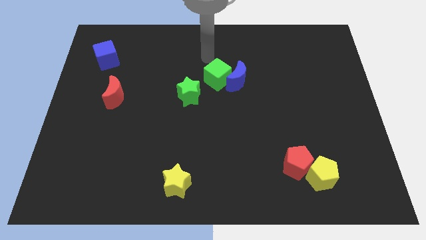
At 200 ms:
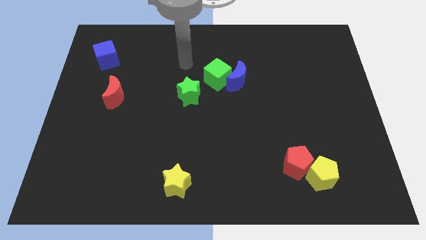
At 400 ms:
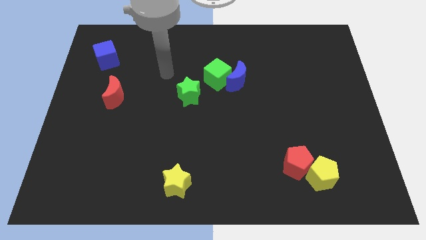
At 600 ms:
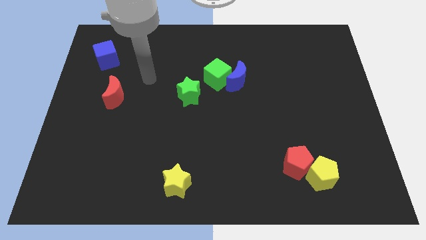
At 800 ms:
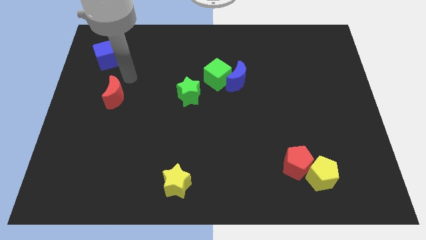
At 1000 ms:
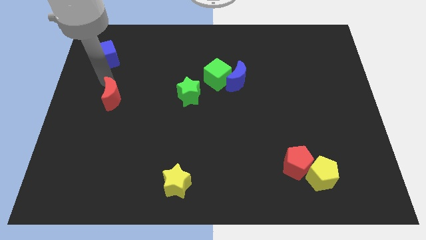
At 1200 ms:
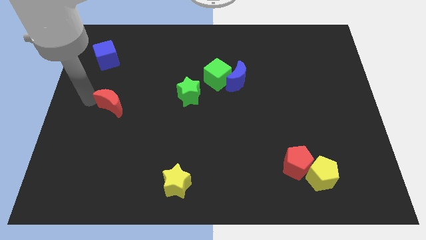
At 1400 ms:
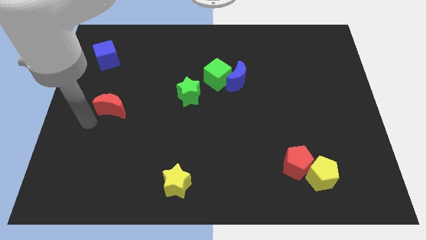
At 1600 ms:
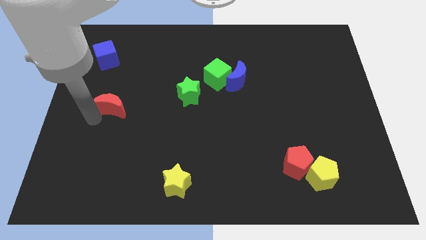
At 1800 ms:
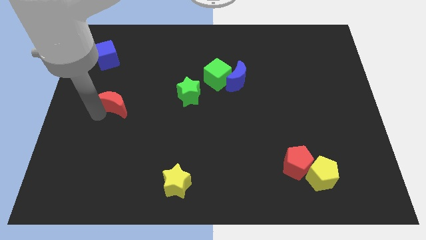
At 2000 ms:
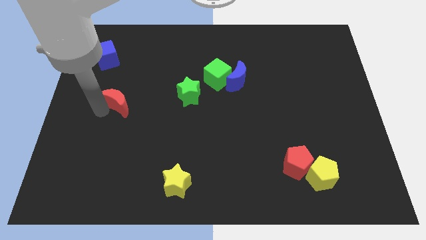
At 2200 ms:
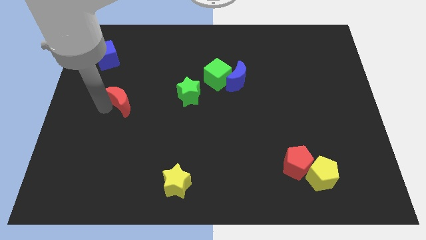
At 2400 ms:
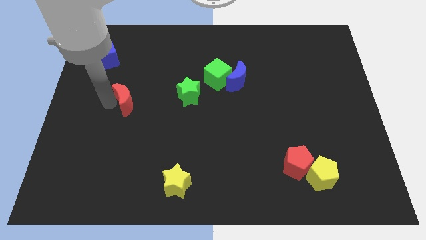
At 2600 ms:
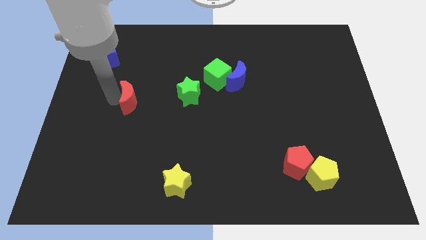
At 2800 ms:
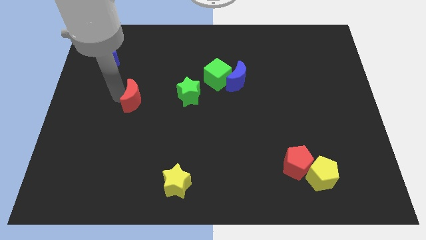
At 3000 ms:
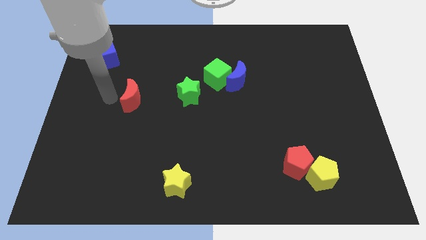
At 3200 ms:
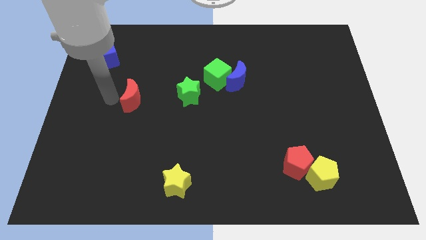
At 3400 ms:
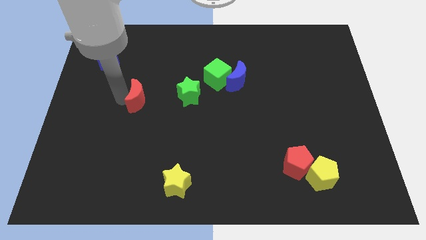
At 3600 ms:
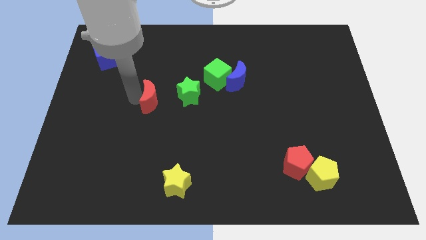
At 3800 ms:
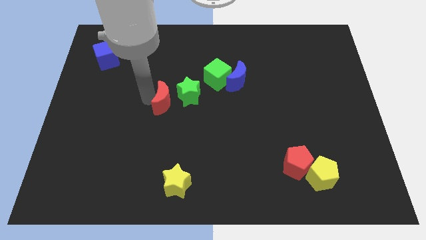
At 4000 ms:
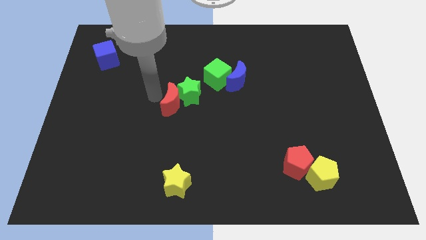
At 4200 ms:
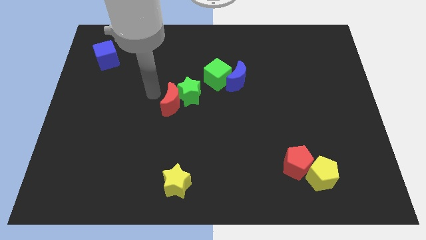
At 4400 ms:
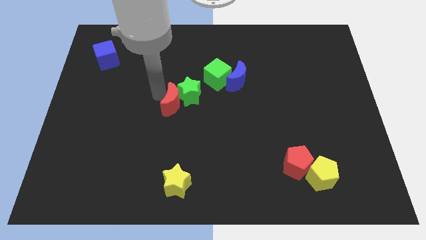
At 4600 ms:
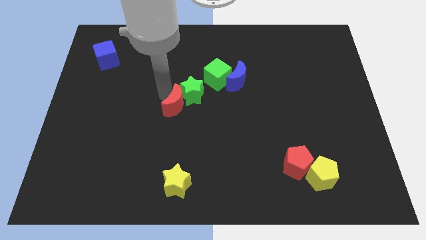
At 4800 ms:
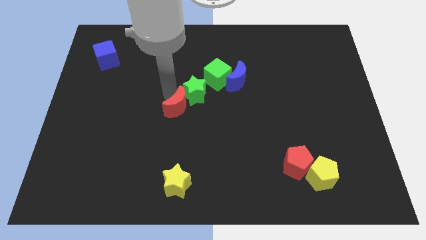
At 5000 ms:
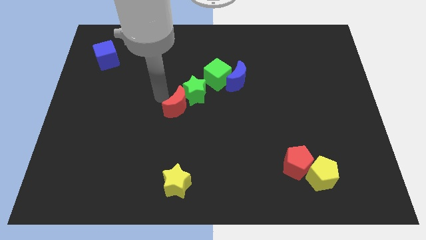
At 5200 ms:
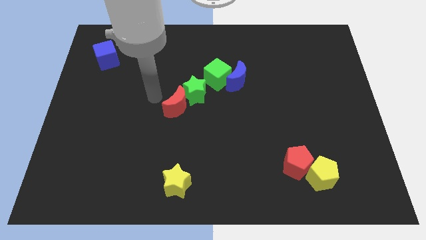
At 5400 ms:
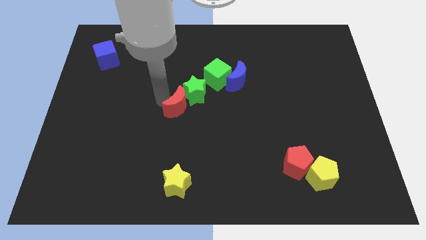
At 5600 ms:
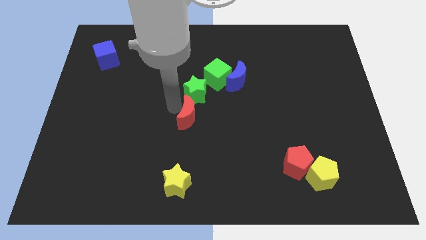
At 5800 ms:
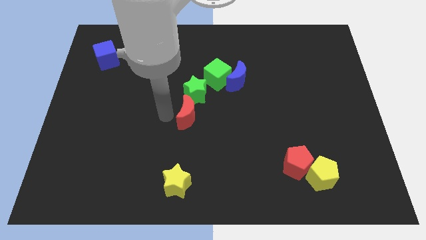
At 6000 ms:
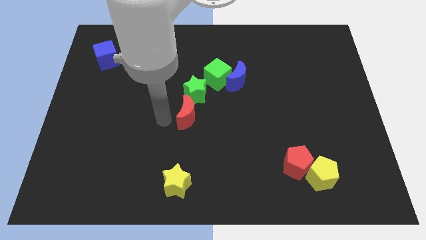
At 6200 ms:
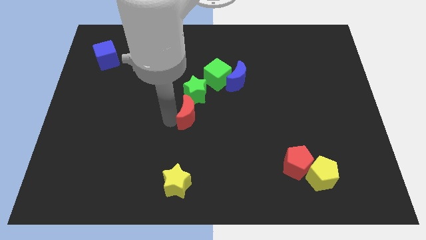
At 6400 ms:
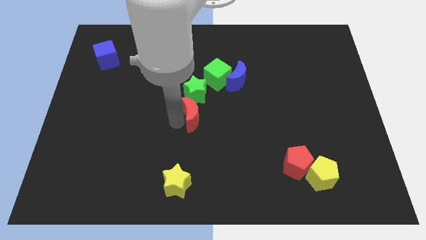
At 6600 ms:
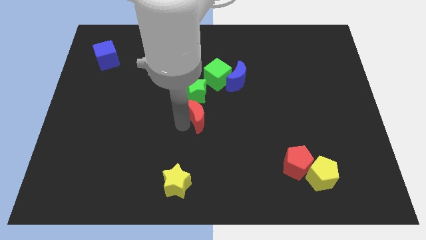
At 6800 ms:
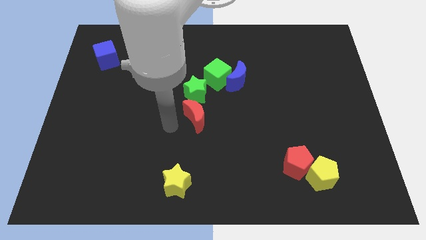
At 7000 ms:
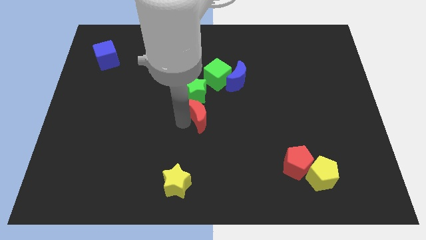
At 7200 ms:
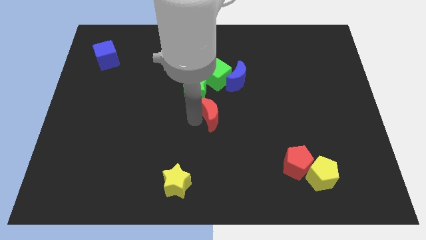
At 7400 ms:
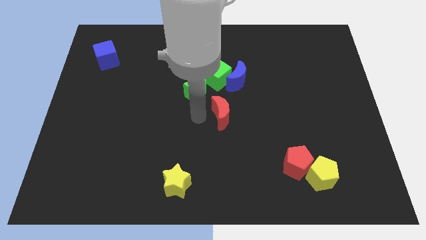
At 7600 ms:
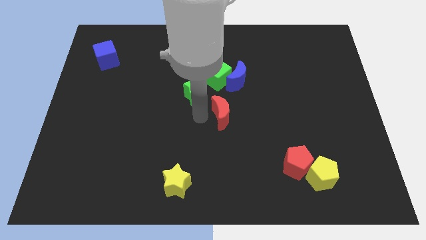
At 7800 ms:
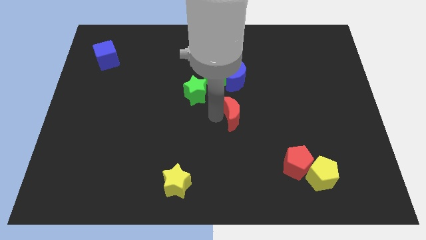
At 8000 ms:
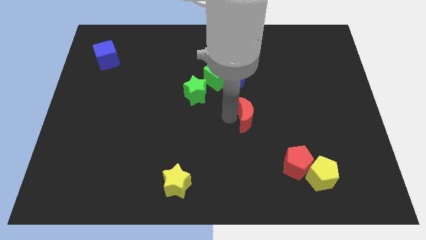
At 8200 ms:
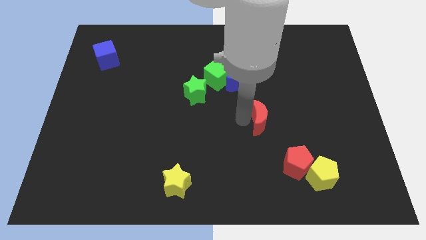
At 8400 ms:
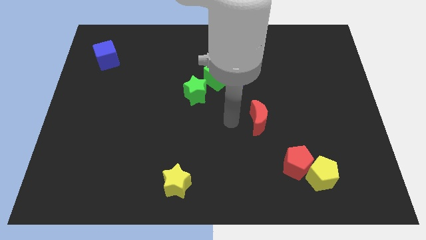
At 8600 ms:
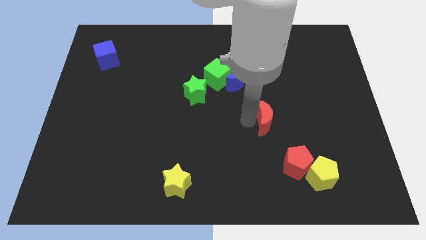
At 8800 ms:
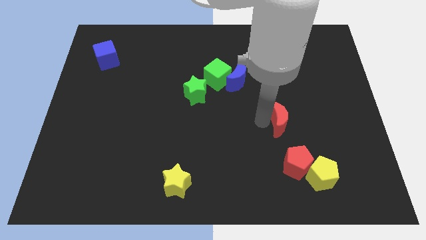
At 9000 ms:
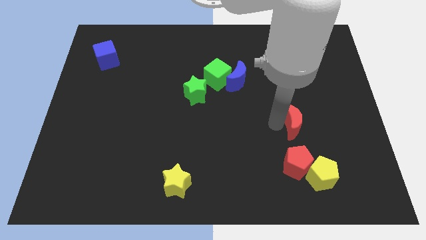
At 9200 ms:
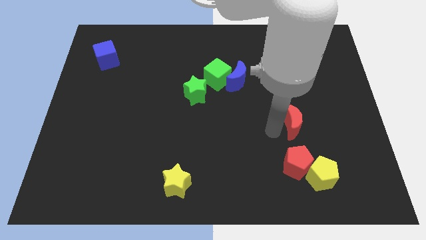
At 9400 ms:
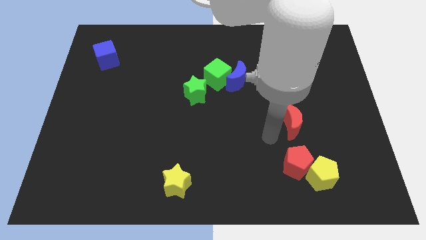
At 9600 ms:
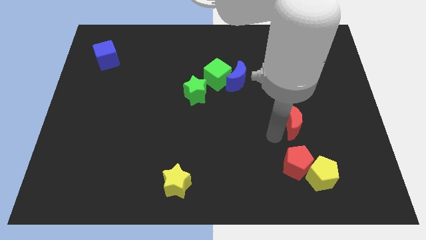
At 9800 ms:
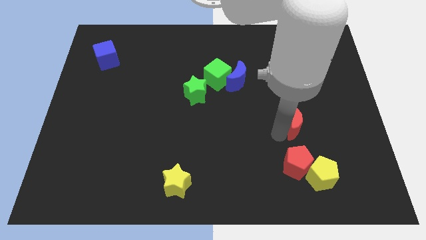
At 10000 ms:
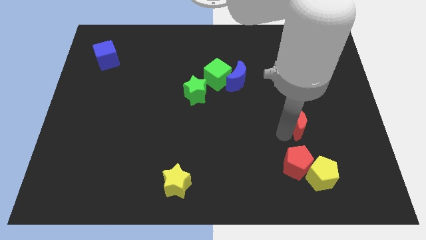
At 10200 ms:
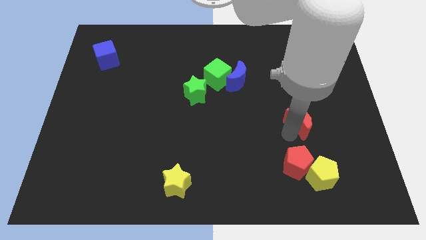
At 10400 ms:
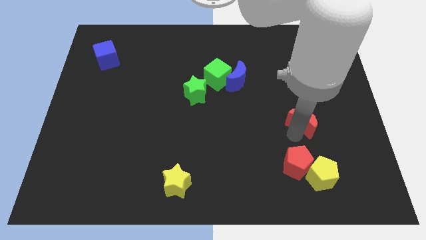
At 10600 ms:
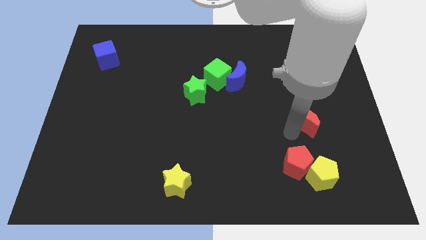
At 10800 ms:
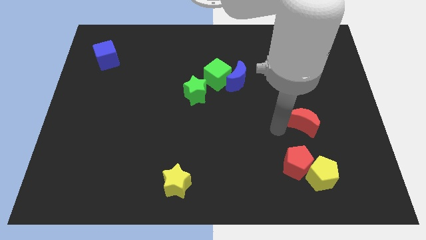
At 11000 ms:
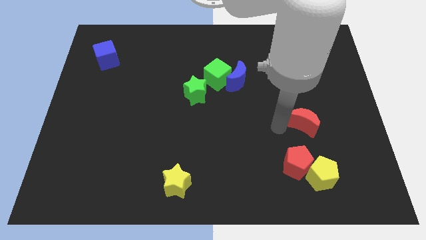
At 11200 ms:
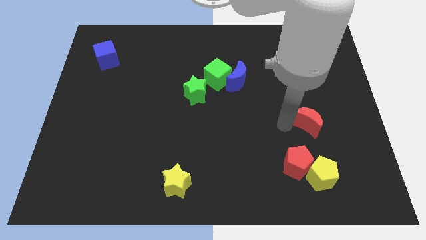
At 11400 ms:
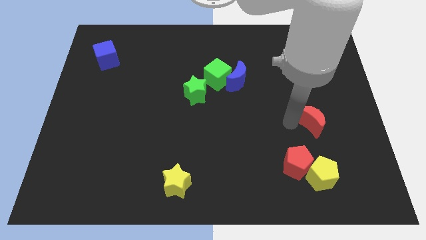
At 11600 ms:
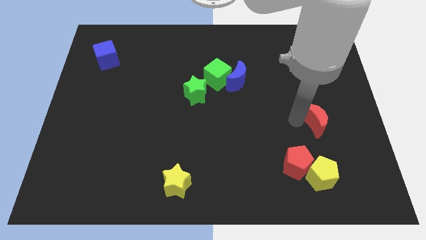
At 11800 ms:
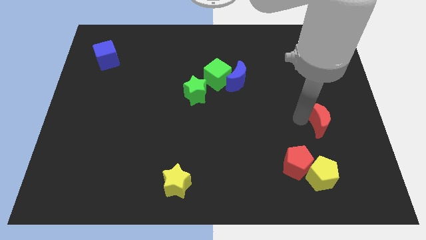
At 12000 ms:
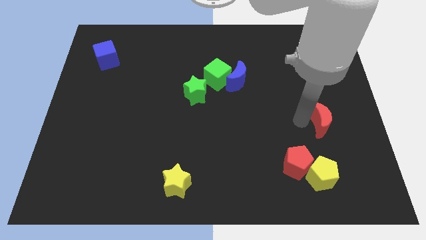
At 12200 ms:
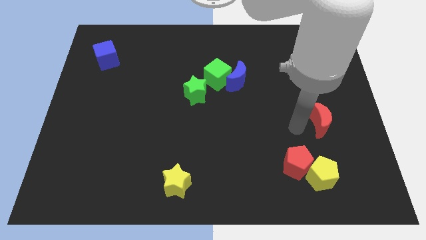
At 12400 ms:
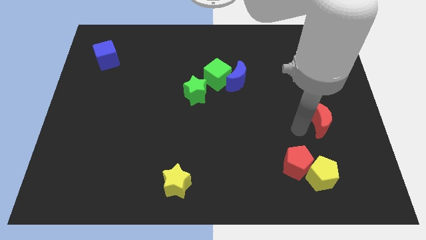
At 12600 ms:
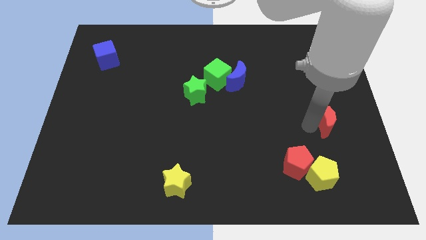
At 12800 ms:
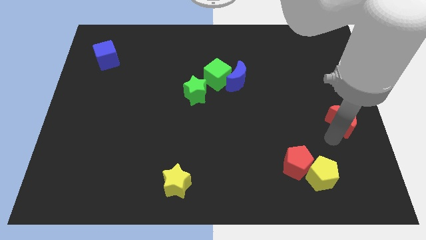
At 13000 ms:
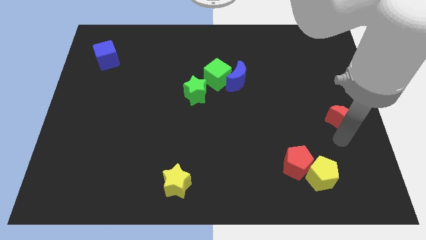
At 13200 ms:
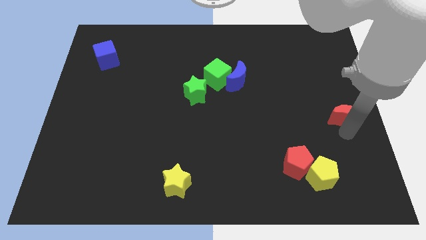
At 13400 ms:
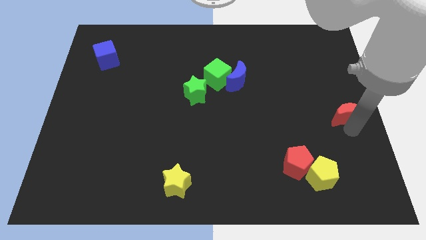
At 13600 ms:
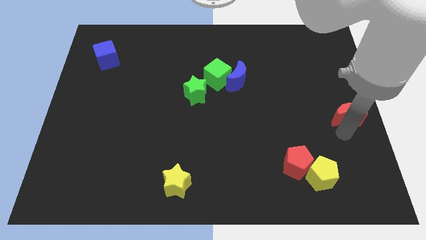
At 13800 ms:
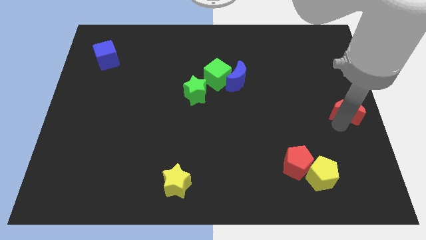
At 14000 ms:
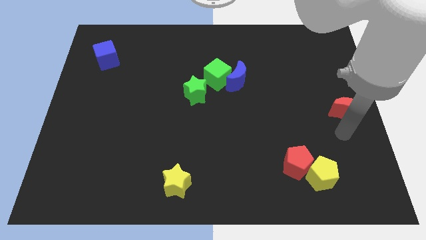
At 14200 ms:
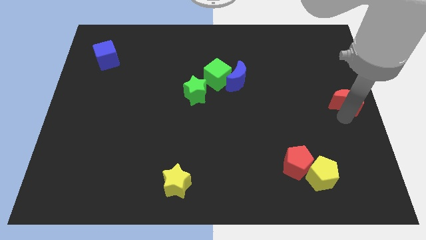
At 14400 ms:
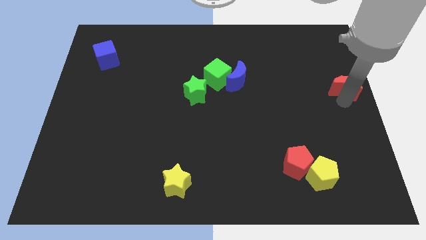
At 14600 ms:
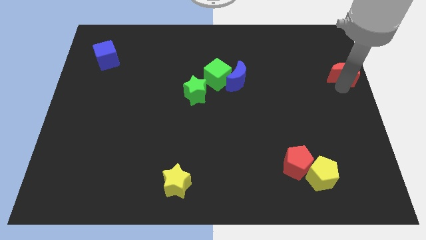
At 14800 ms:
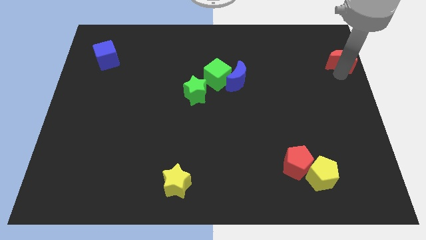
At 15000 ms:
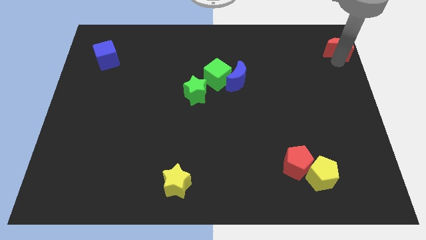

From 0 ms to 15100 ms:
push the red moon to the top right of the board
